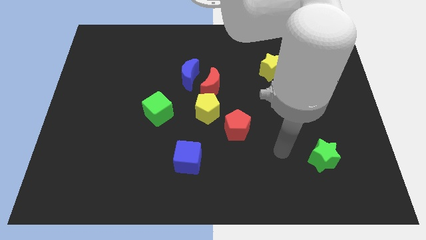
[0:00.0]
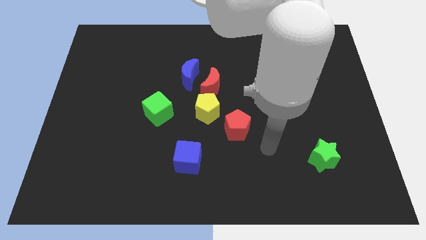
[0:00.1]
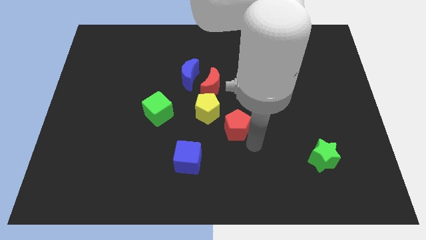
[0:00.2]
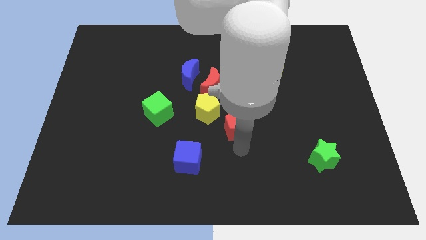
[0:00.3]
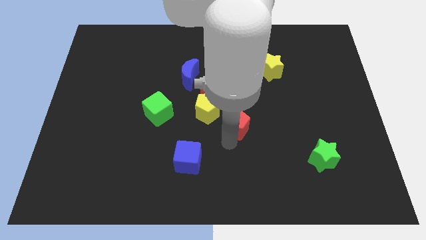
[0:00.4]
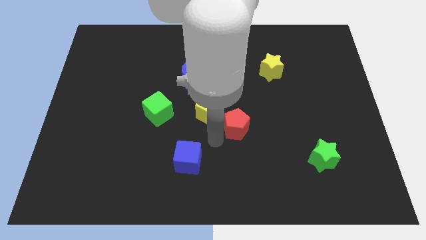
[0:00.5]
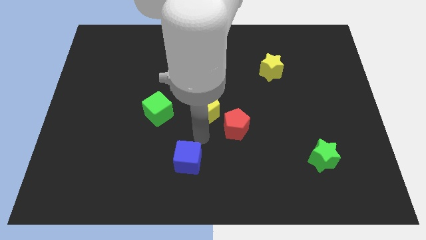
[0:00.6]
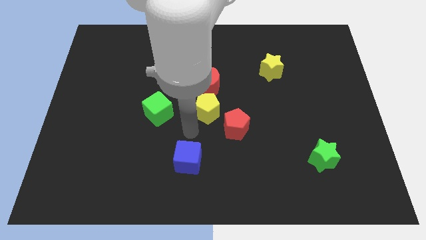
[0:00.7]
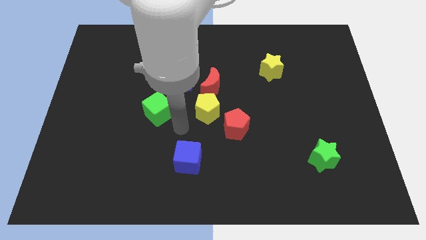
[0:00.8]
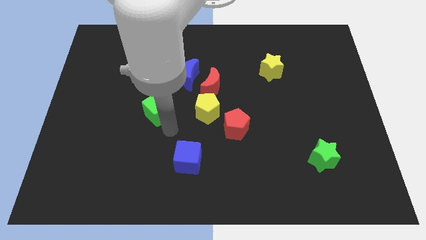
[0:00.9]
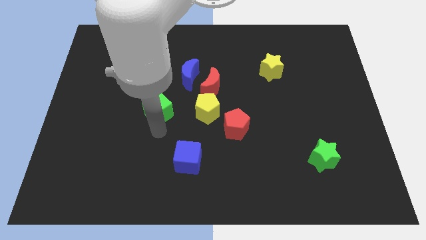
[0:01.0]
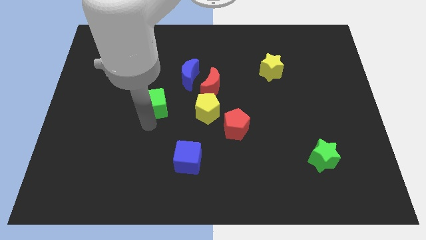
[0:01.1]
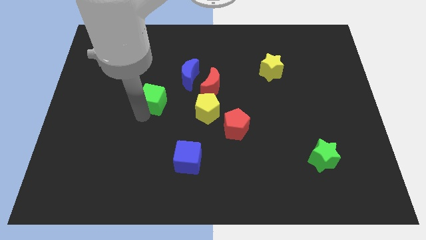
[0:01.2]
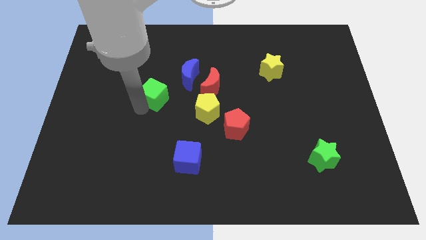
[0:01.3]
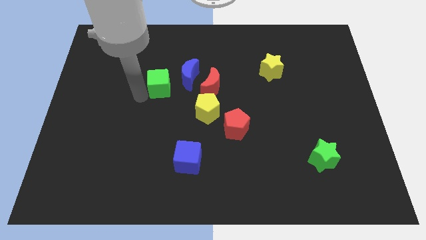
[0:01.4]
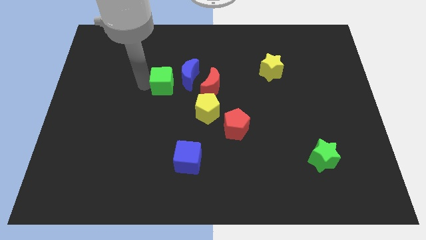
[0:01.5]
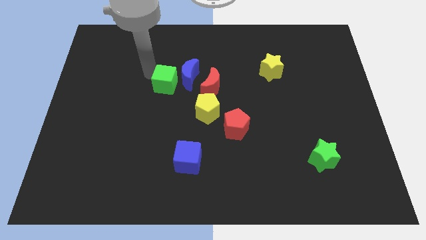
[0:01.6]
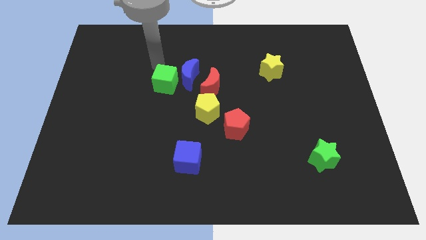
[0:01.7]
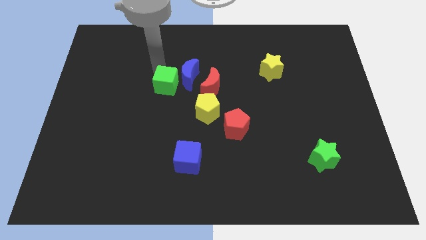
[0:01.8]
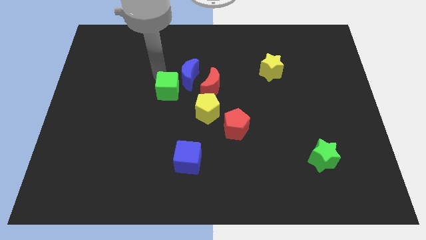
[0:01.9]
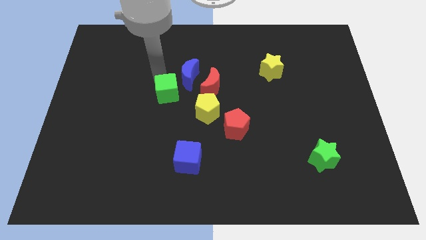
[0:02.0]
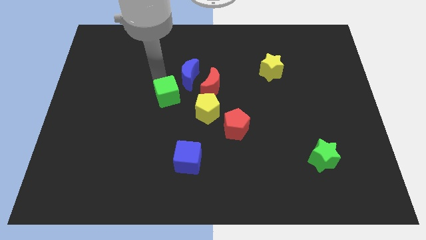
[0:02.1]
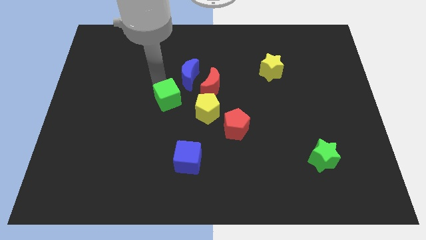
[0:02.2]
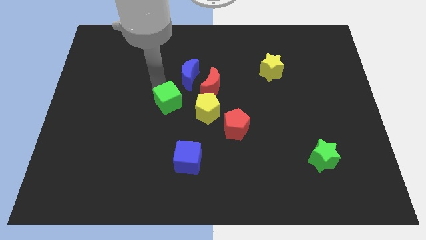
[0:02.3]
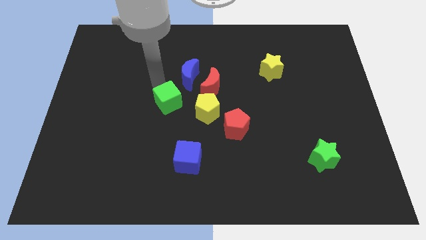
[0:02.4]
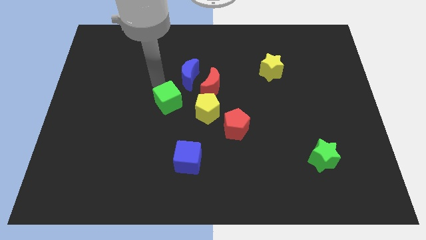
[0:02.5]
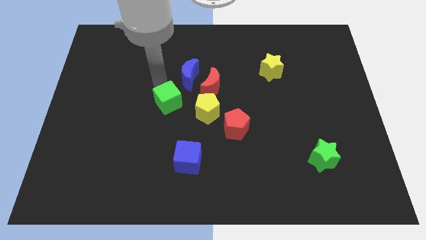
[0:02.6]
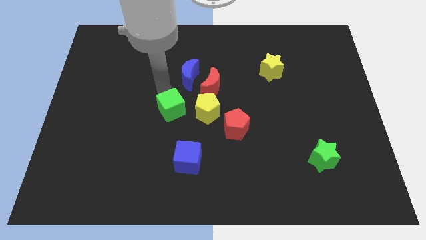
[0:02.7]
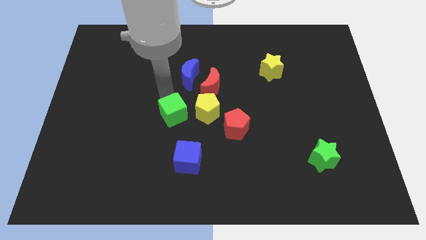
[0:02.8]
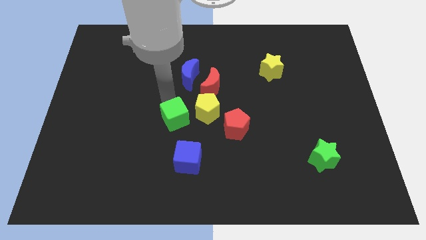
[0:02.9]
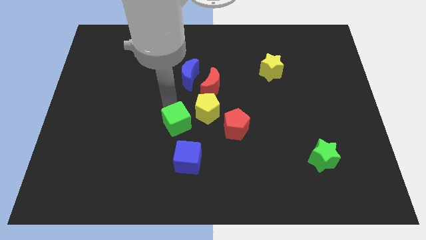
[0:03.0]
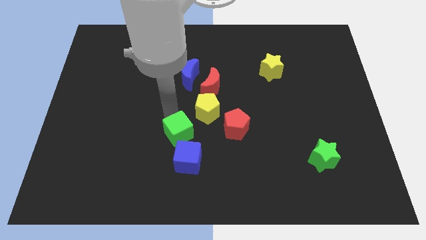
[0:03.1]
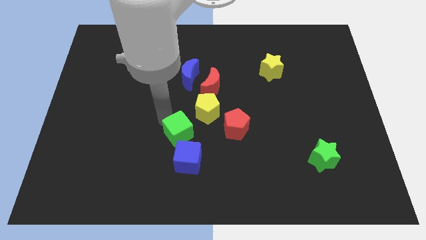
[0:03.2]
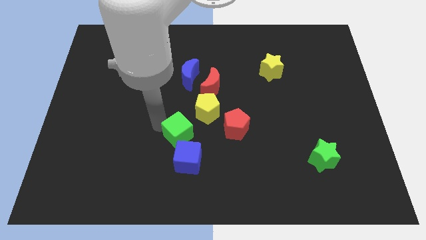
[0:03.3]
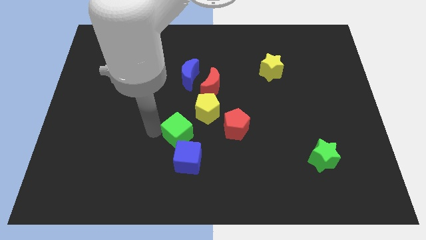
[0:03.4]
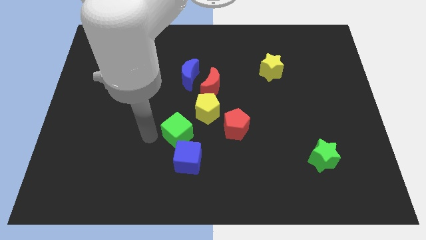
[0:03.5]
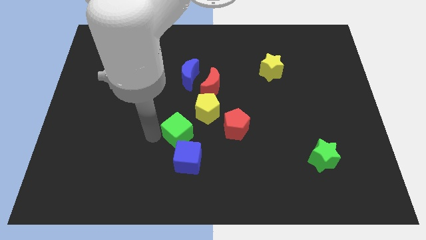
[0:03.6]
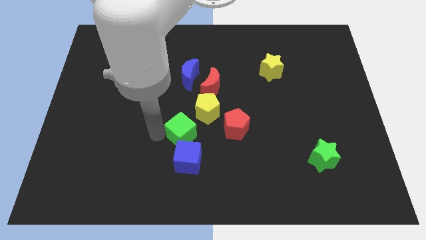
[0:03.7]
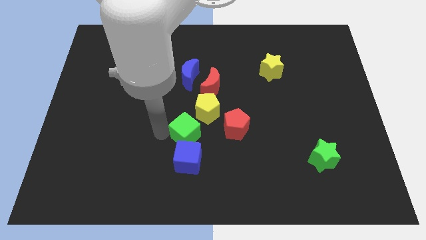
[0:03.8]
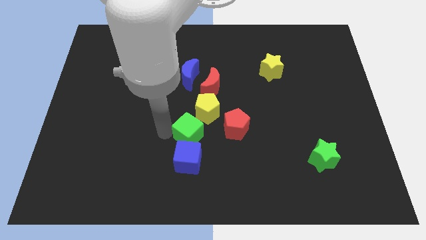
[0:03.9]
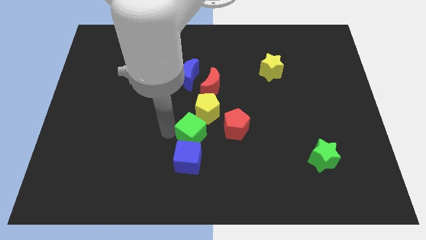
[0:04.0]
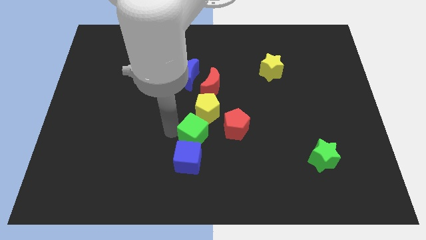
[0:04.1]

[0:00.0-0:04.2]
slightly slide the green cube to the right

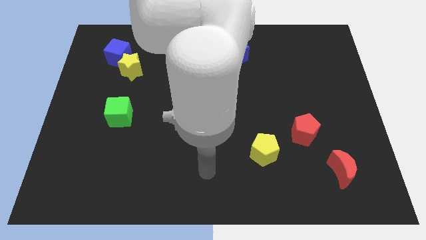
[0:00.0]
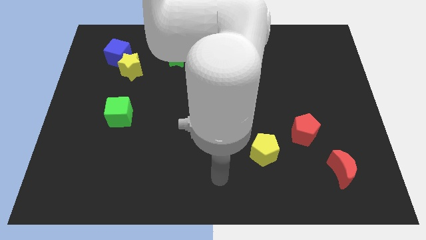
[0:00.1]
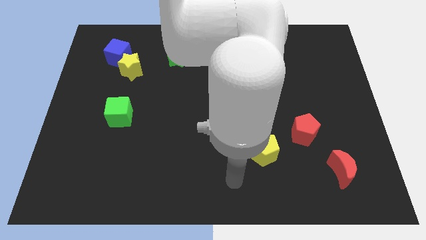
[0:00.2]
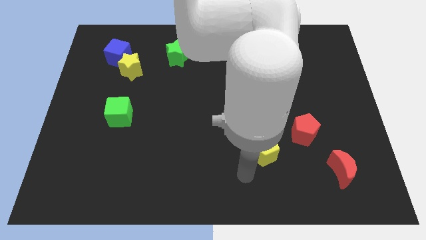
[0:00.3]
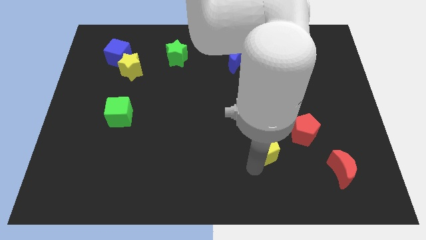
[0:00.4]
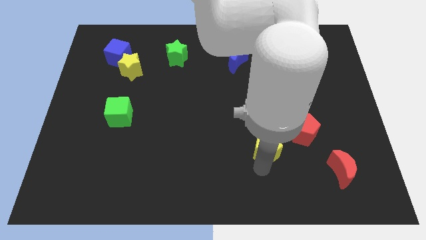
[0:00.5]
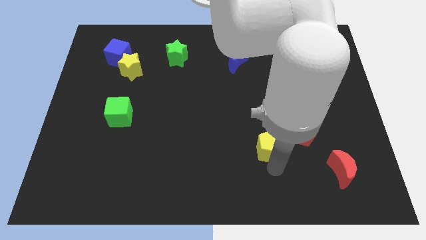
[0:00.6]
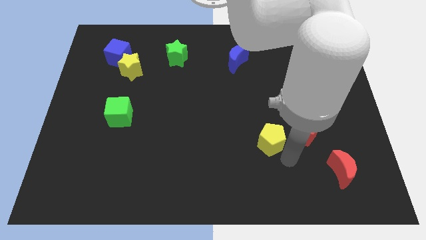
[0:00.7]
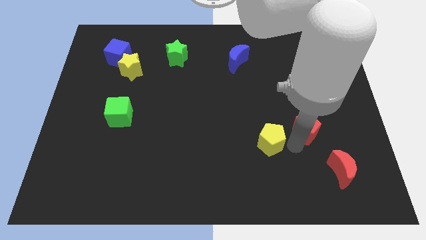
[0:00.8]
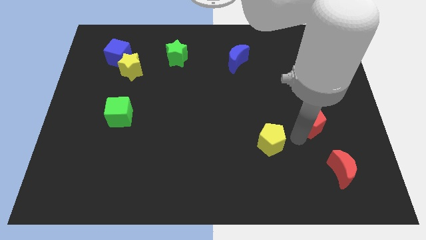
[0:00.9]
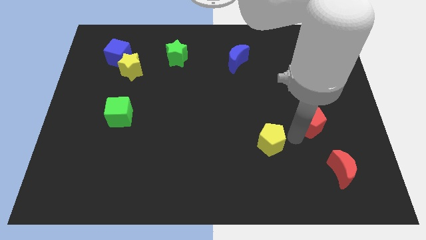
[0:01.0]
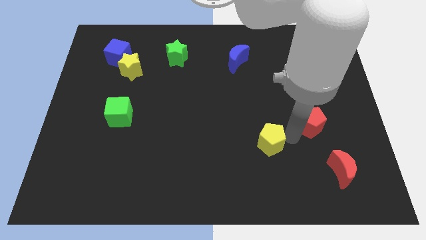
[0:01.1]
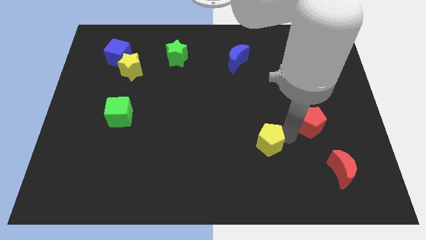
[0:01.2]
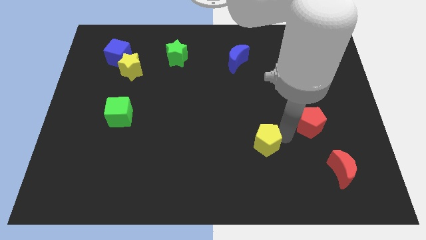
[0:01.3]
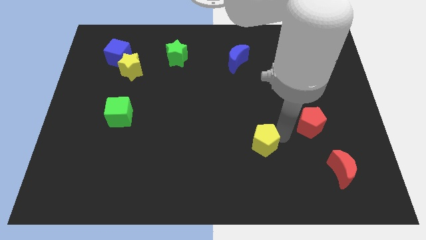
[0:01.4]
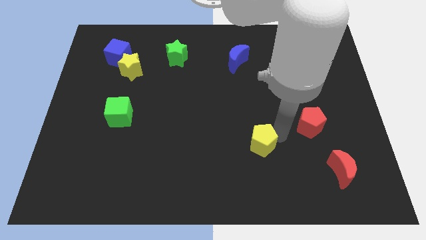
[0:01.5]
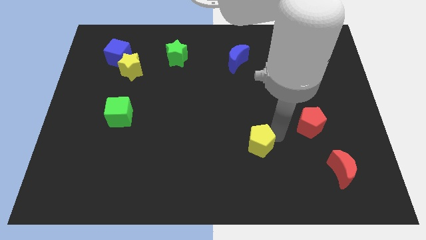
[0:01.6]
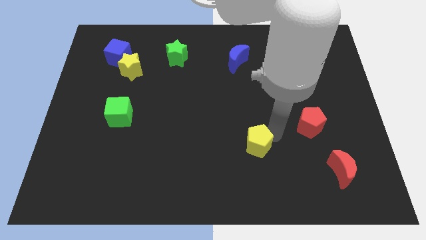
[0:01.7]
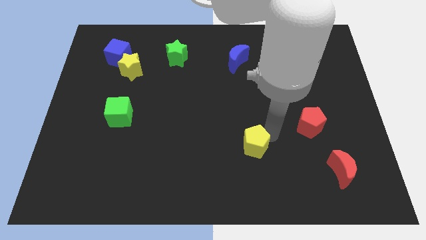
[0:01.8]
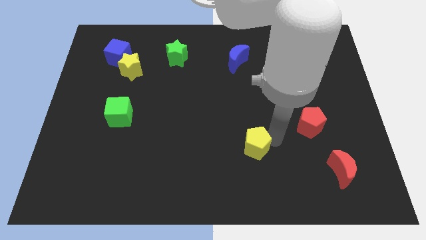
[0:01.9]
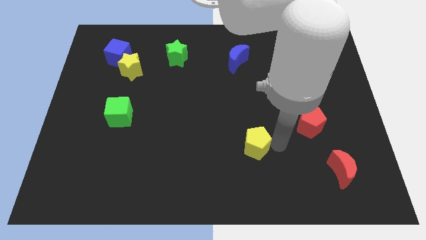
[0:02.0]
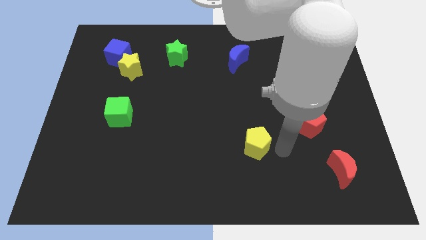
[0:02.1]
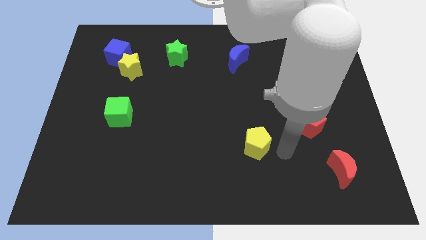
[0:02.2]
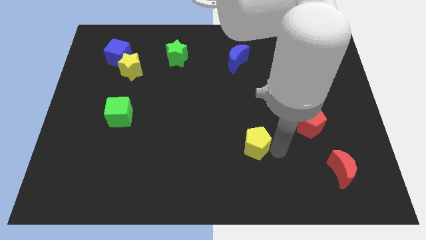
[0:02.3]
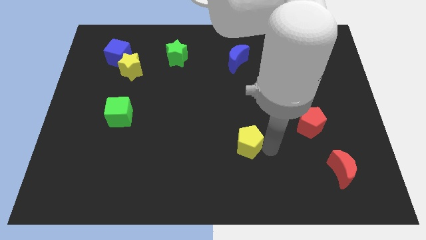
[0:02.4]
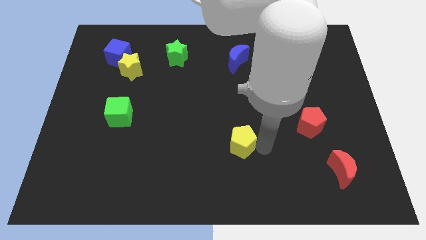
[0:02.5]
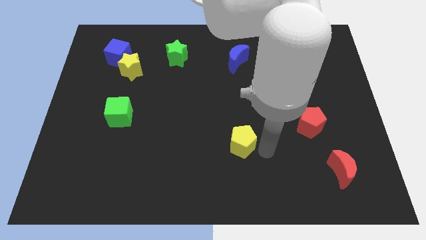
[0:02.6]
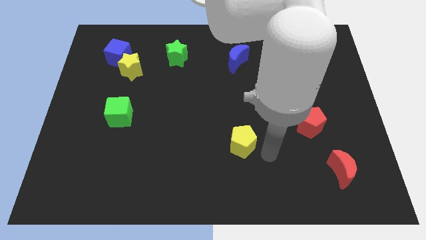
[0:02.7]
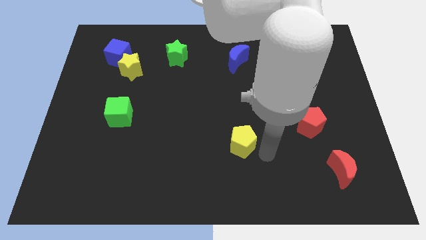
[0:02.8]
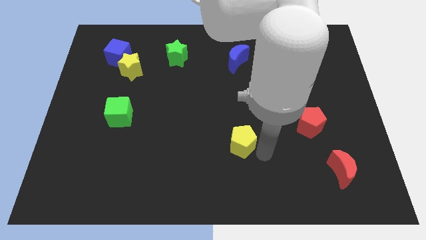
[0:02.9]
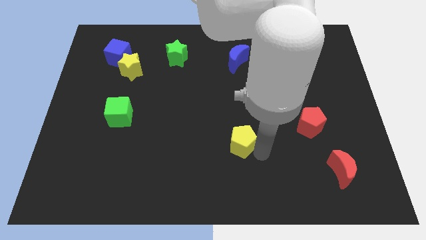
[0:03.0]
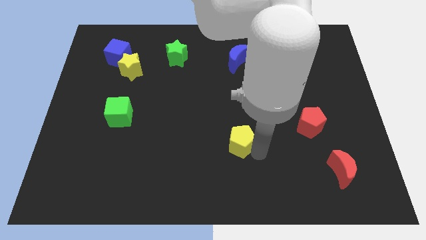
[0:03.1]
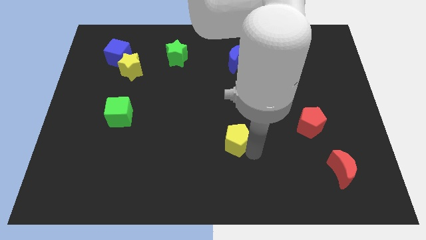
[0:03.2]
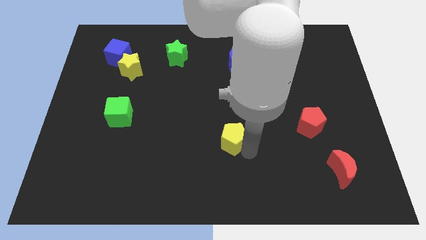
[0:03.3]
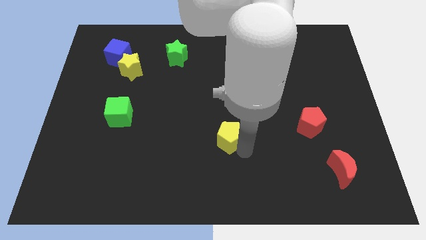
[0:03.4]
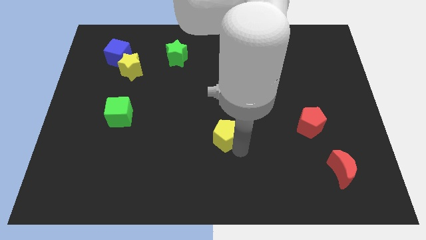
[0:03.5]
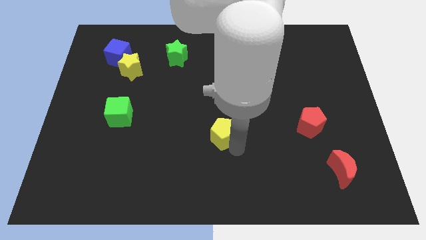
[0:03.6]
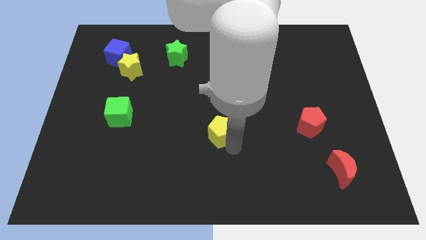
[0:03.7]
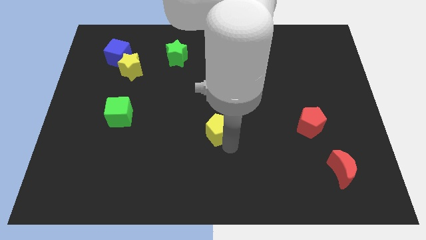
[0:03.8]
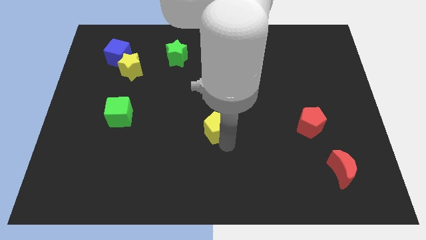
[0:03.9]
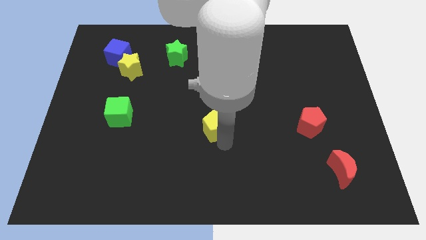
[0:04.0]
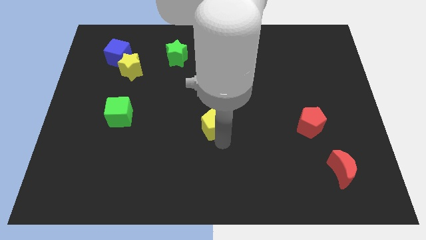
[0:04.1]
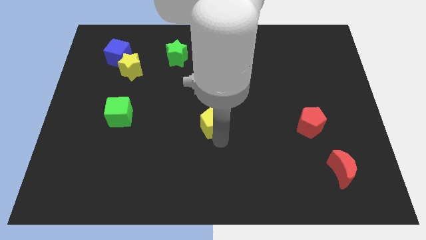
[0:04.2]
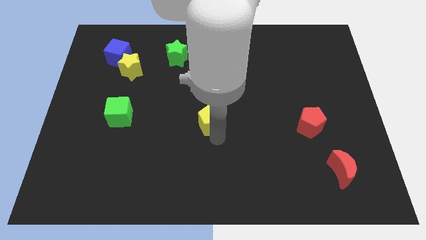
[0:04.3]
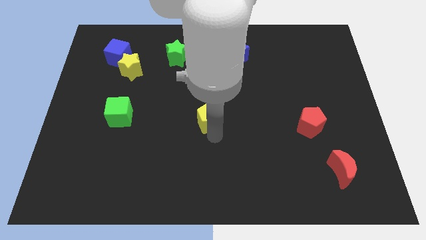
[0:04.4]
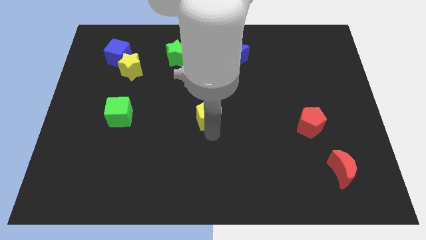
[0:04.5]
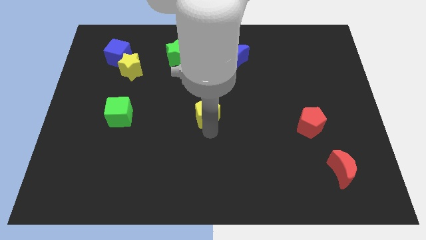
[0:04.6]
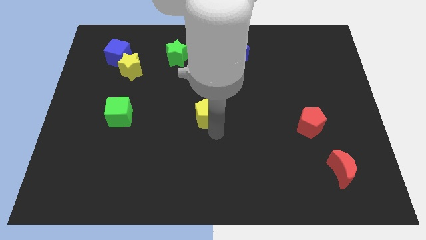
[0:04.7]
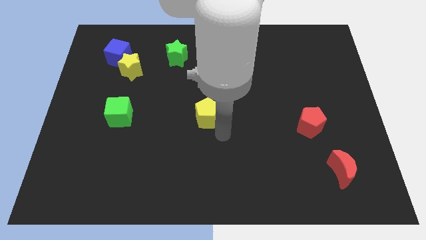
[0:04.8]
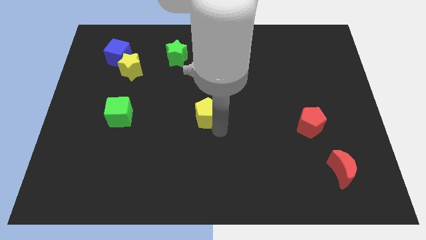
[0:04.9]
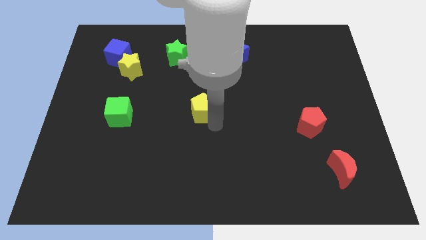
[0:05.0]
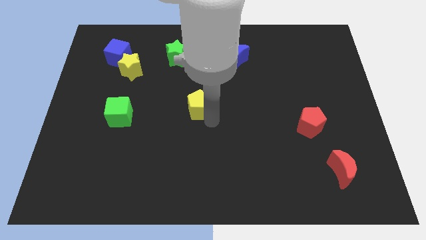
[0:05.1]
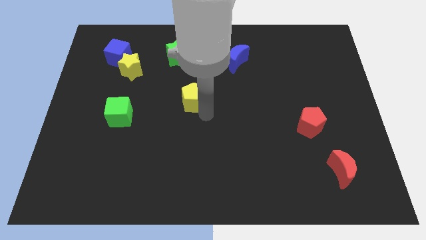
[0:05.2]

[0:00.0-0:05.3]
push the yellow pentagon upwards and then to the left
